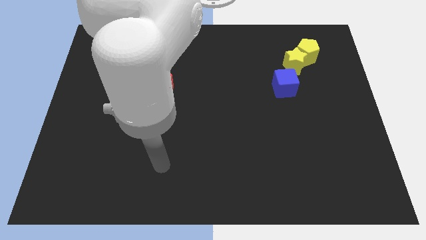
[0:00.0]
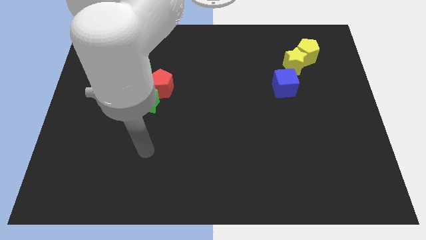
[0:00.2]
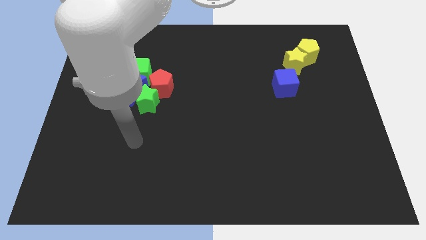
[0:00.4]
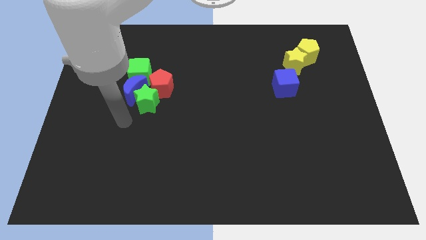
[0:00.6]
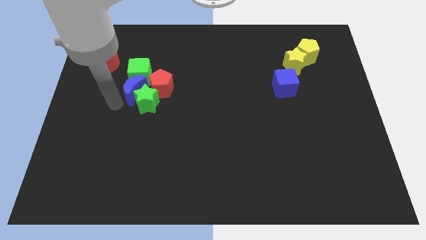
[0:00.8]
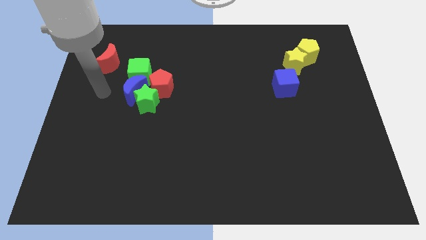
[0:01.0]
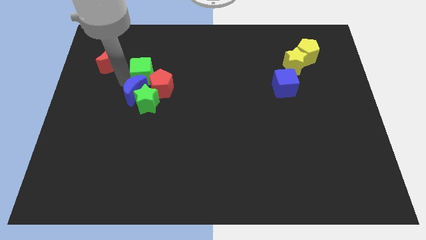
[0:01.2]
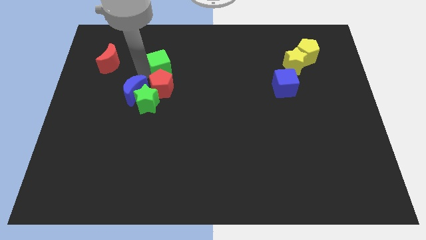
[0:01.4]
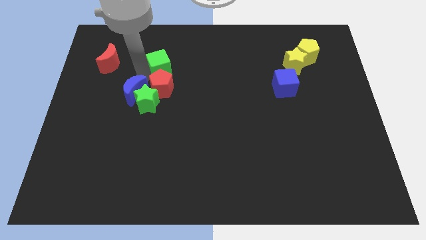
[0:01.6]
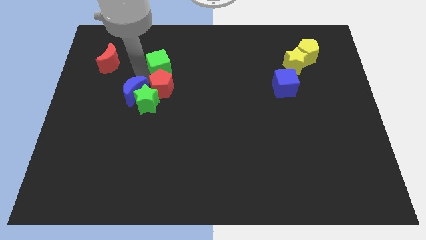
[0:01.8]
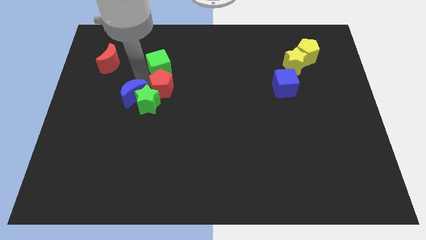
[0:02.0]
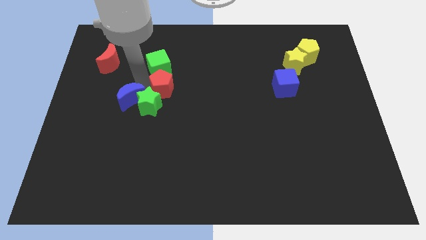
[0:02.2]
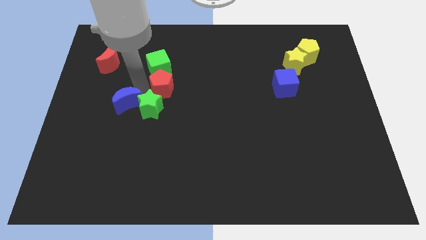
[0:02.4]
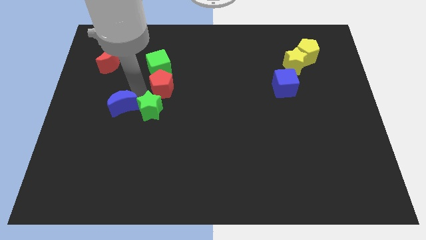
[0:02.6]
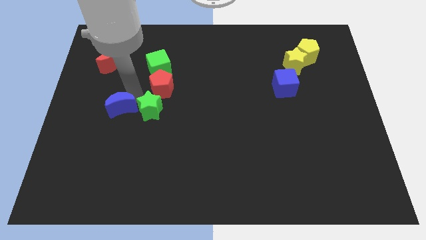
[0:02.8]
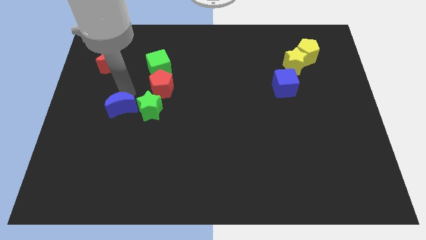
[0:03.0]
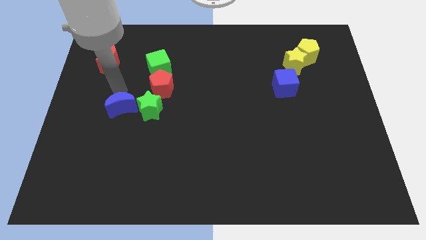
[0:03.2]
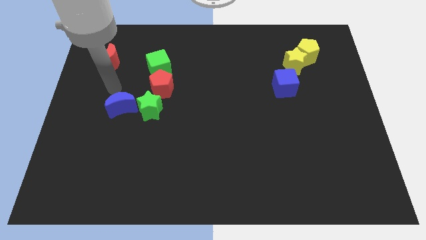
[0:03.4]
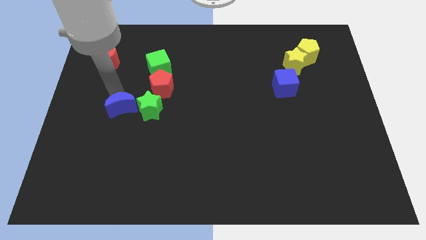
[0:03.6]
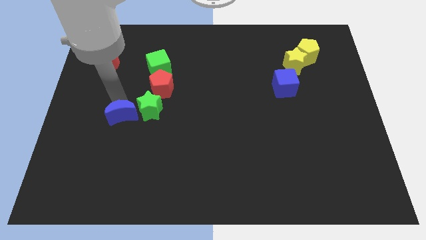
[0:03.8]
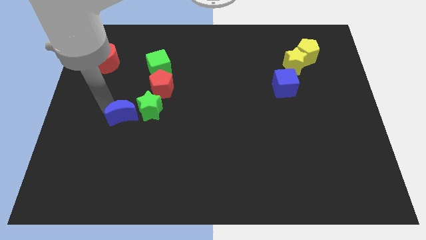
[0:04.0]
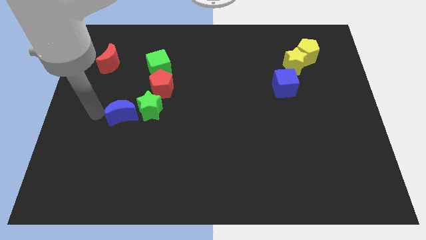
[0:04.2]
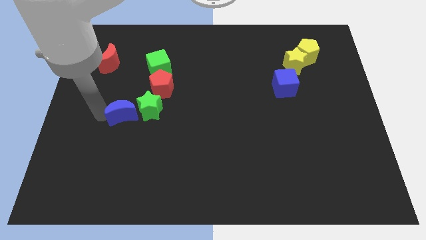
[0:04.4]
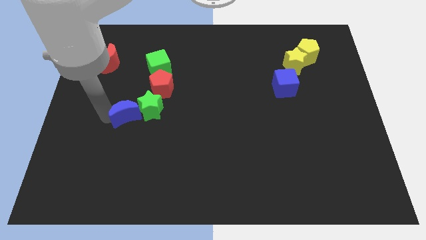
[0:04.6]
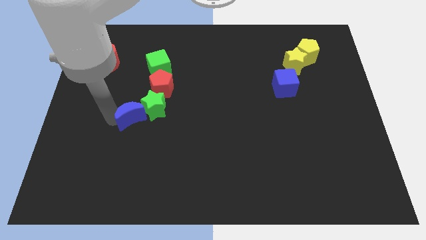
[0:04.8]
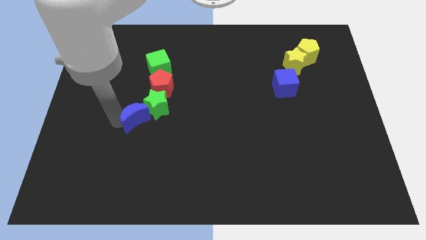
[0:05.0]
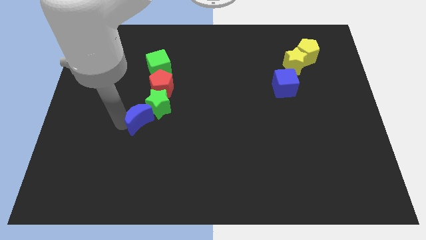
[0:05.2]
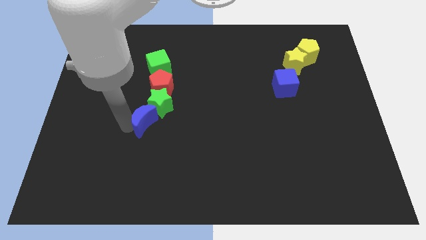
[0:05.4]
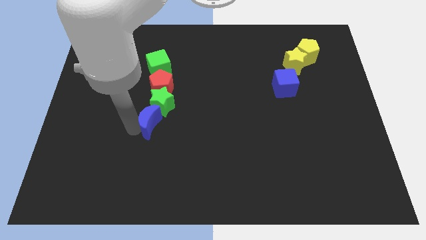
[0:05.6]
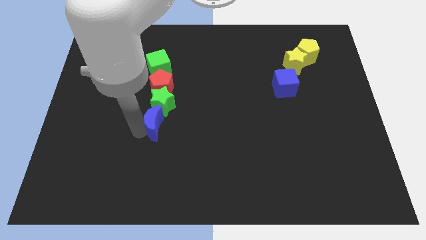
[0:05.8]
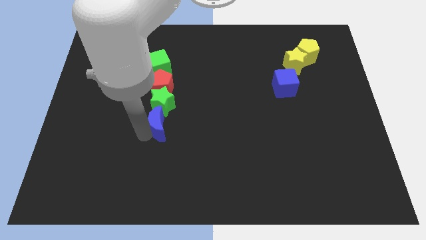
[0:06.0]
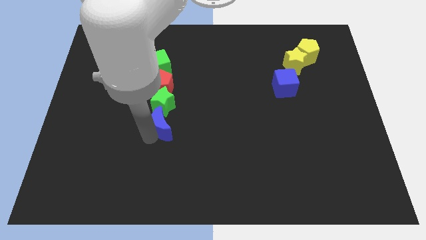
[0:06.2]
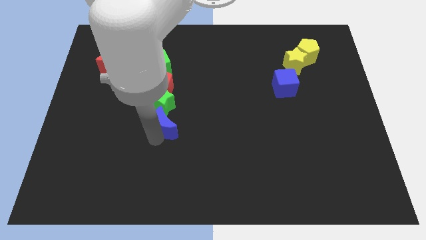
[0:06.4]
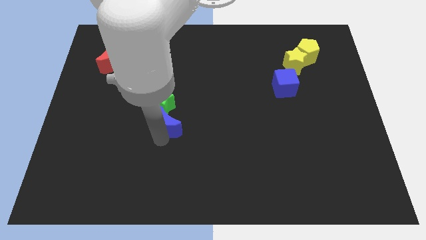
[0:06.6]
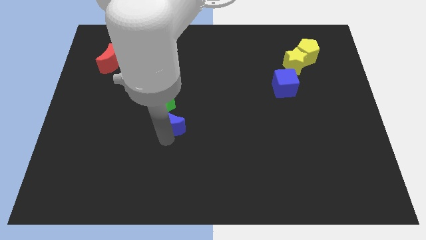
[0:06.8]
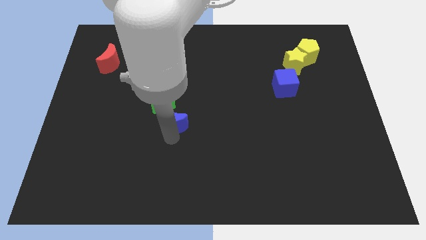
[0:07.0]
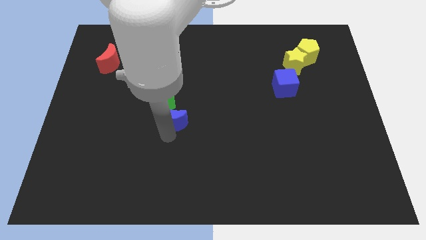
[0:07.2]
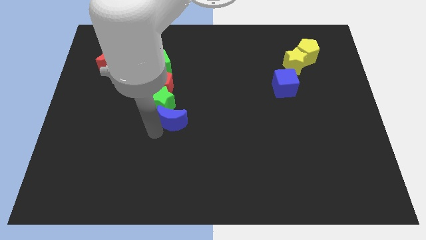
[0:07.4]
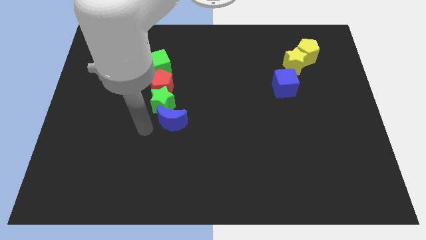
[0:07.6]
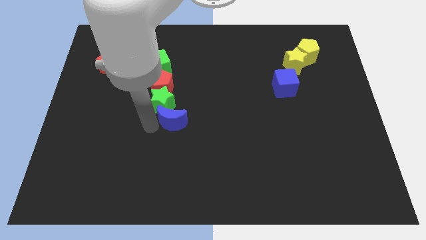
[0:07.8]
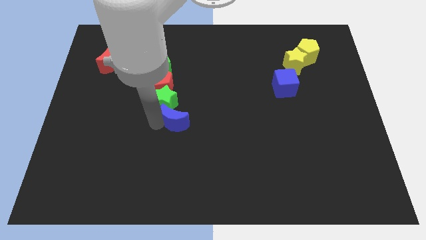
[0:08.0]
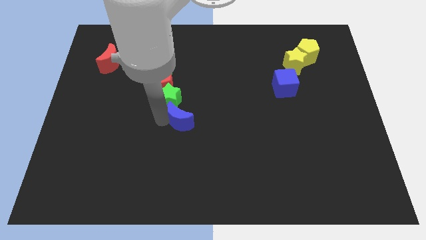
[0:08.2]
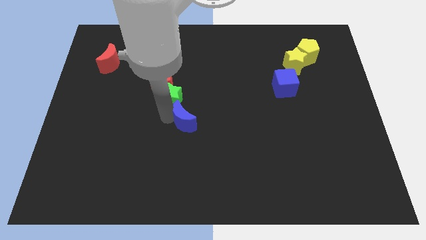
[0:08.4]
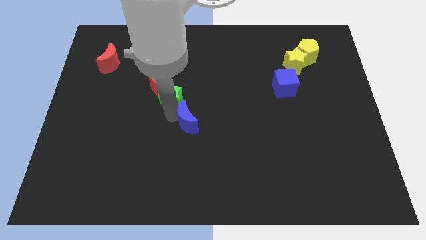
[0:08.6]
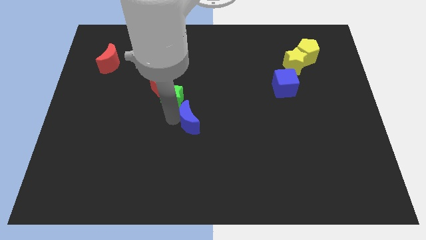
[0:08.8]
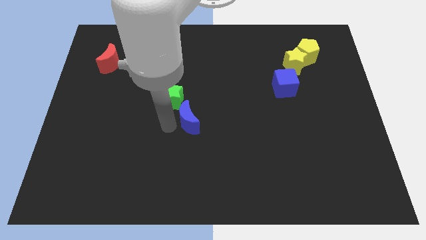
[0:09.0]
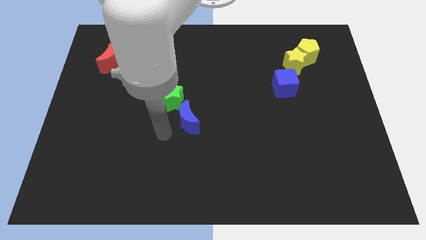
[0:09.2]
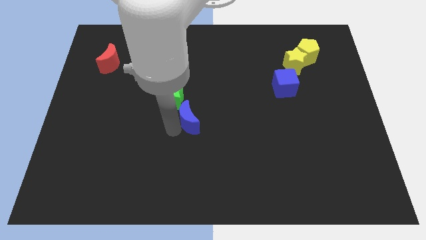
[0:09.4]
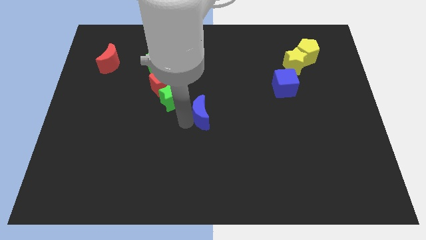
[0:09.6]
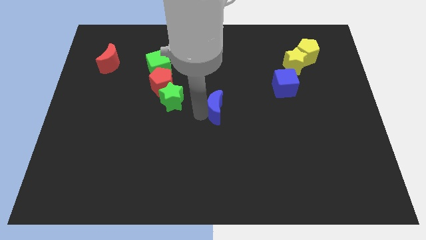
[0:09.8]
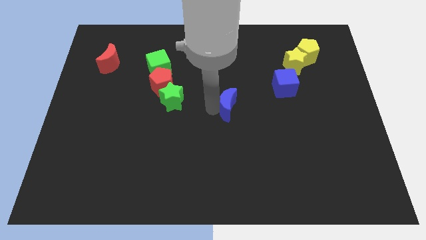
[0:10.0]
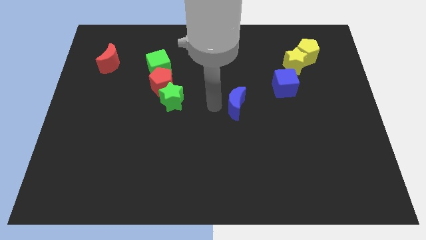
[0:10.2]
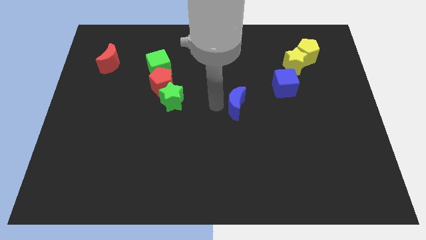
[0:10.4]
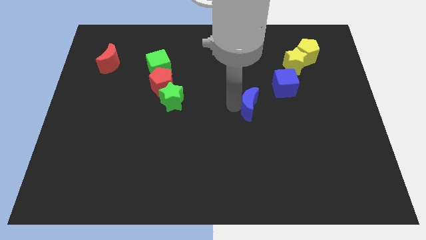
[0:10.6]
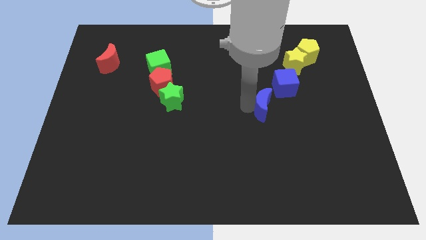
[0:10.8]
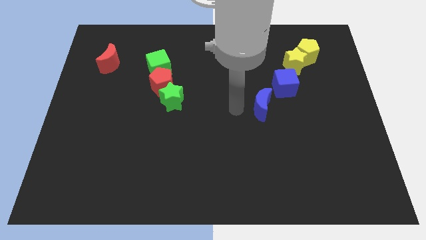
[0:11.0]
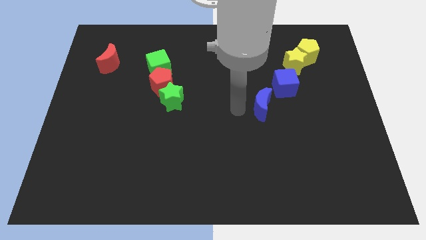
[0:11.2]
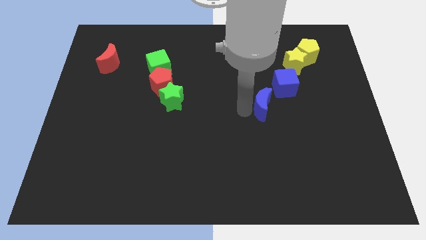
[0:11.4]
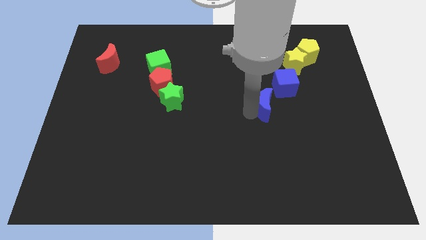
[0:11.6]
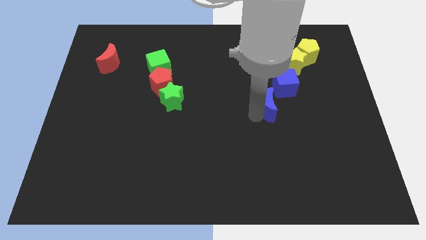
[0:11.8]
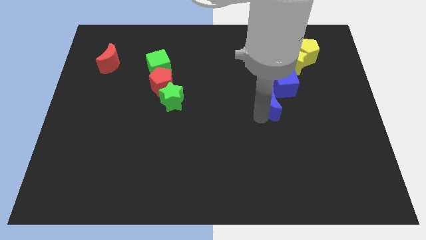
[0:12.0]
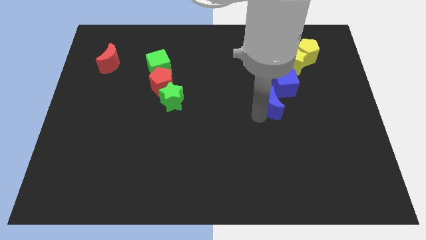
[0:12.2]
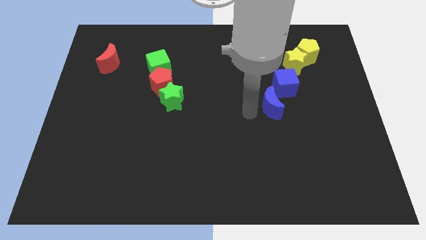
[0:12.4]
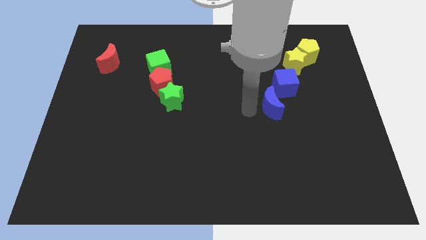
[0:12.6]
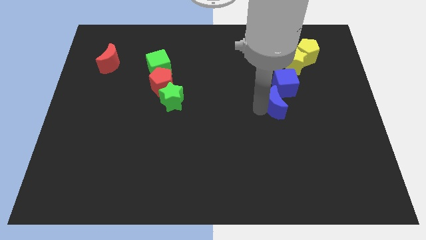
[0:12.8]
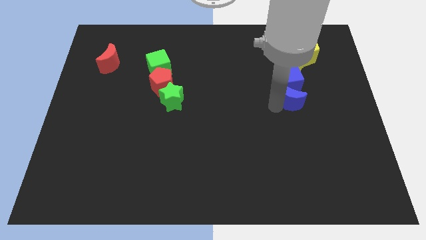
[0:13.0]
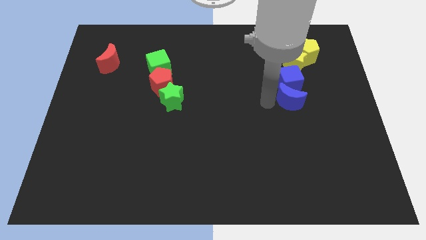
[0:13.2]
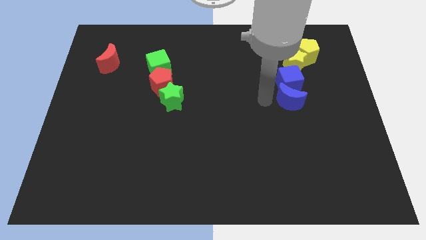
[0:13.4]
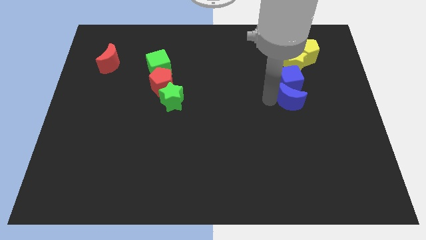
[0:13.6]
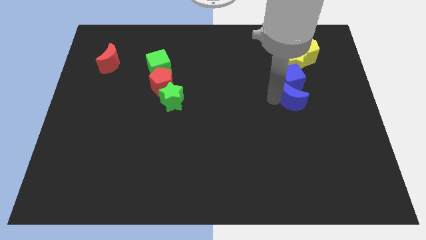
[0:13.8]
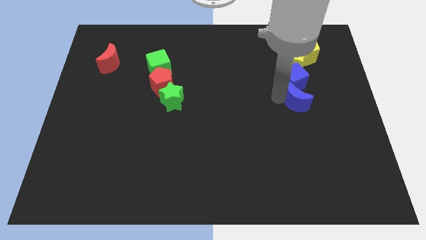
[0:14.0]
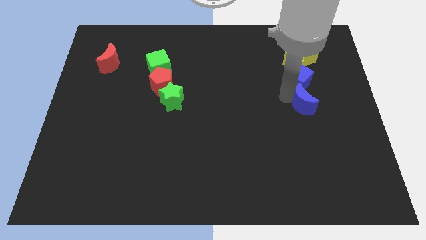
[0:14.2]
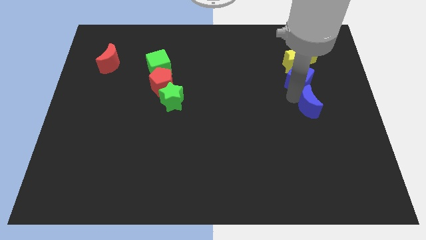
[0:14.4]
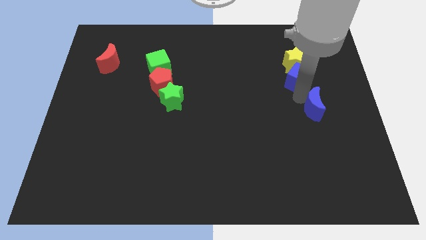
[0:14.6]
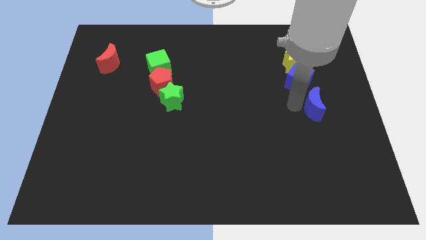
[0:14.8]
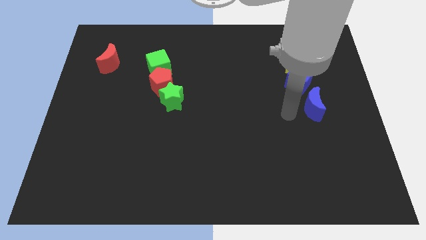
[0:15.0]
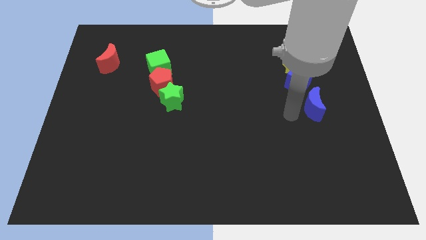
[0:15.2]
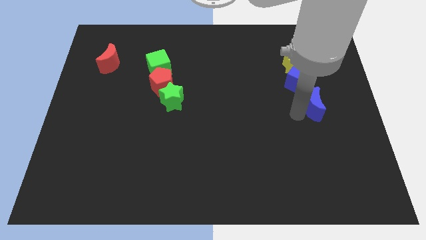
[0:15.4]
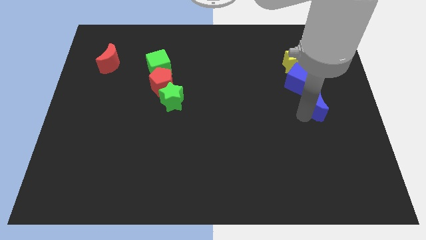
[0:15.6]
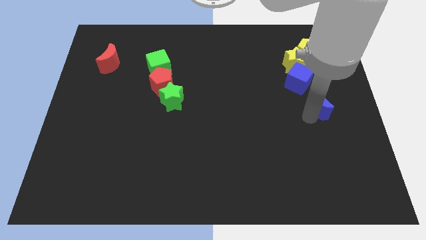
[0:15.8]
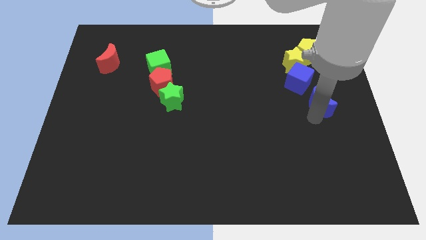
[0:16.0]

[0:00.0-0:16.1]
move the blue moon to the center right
